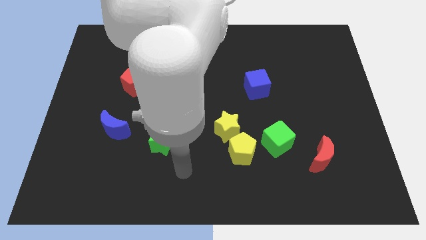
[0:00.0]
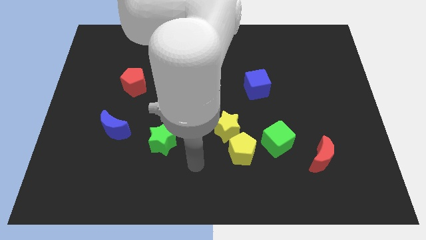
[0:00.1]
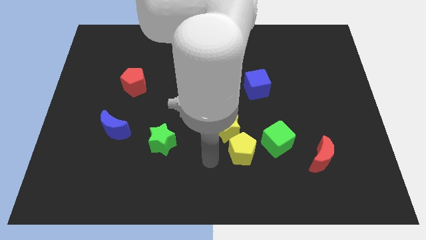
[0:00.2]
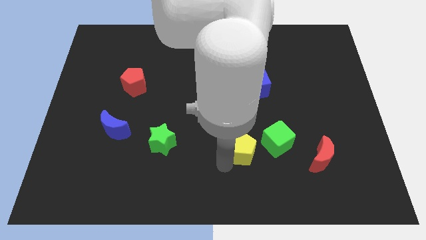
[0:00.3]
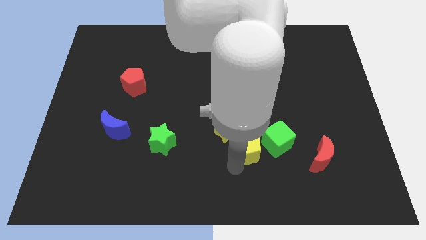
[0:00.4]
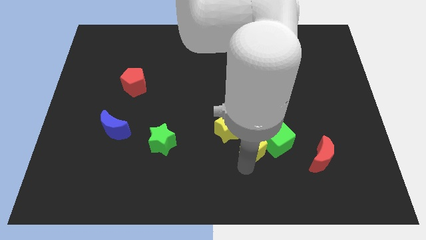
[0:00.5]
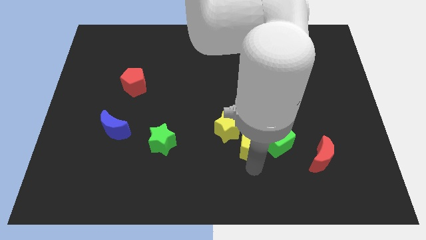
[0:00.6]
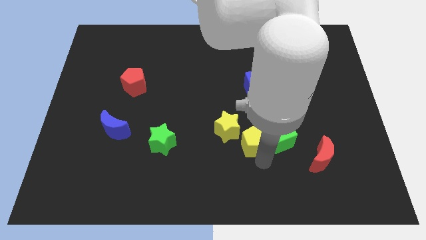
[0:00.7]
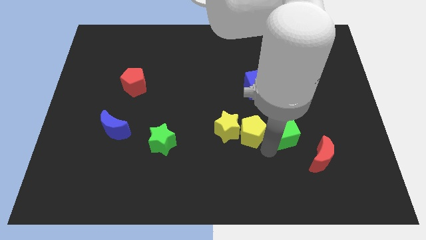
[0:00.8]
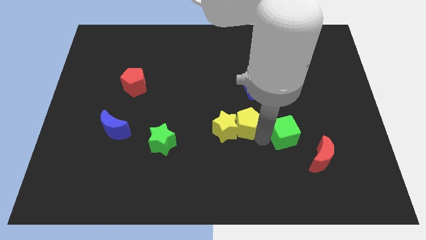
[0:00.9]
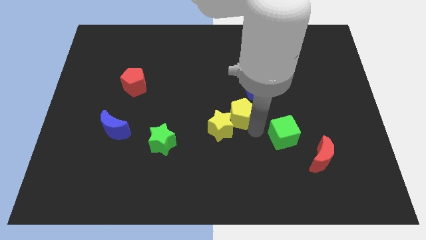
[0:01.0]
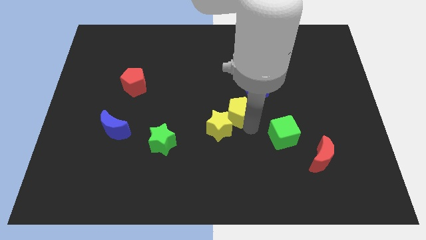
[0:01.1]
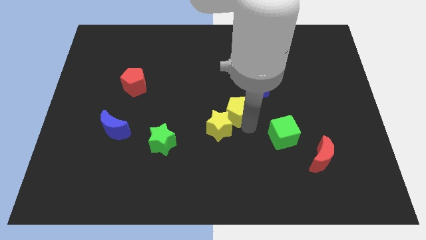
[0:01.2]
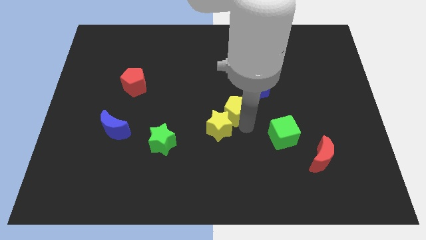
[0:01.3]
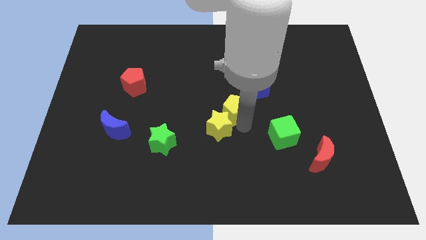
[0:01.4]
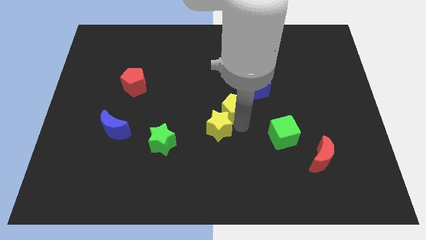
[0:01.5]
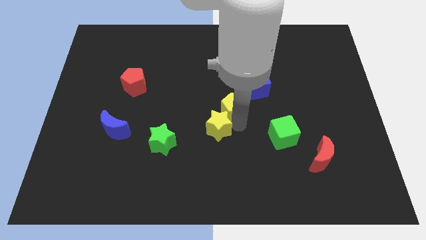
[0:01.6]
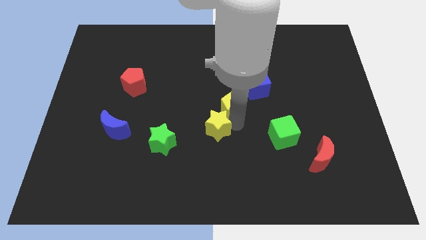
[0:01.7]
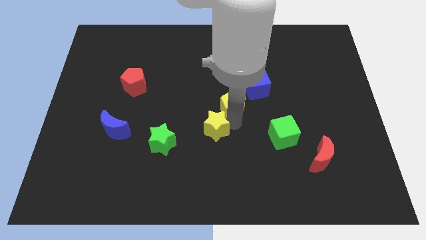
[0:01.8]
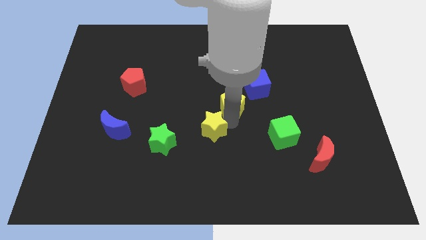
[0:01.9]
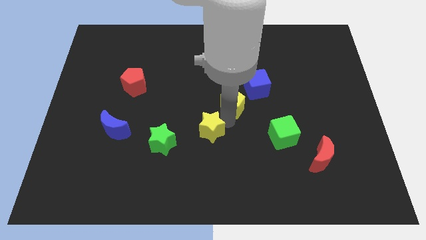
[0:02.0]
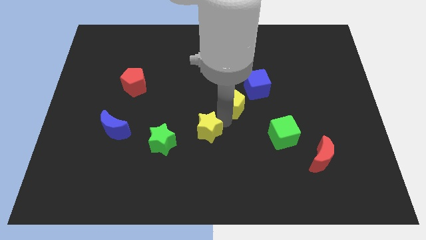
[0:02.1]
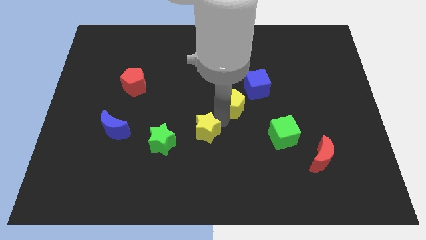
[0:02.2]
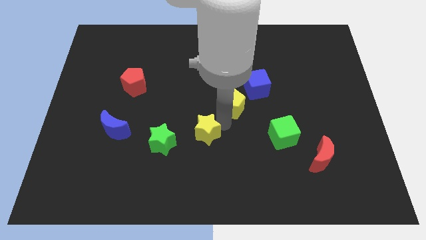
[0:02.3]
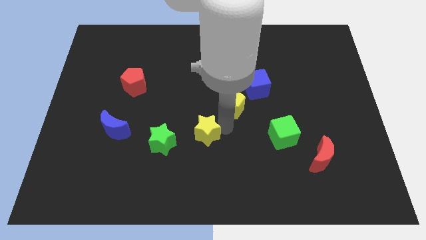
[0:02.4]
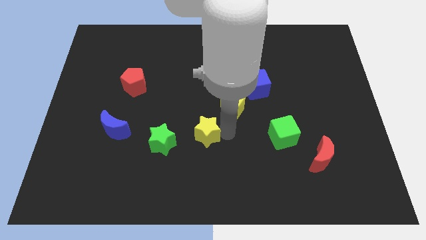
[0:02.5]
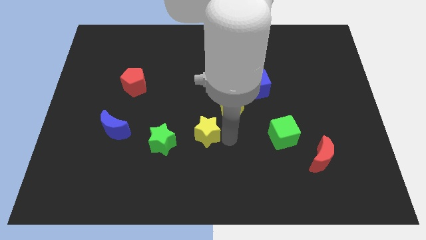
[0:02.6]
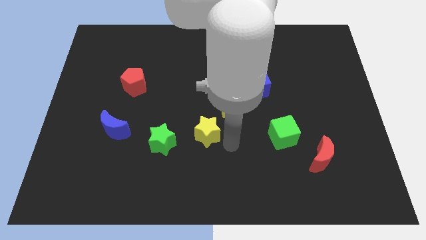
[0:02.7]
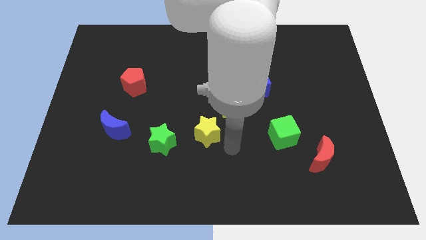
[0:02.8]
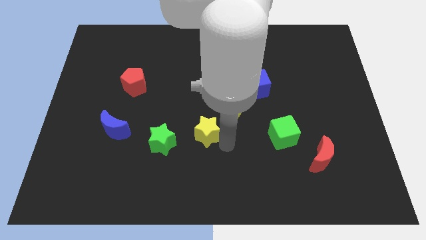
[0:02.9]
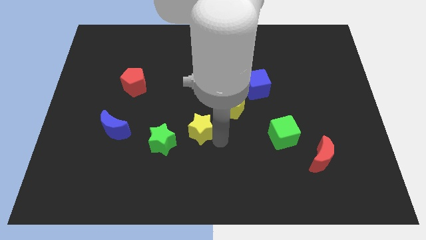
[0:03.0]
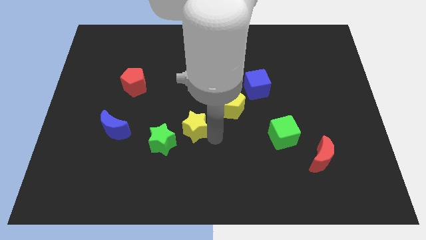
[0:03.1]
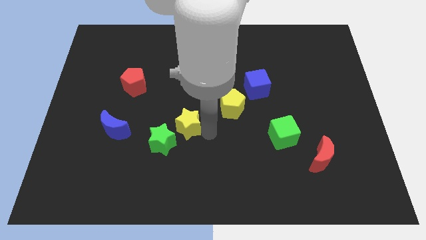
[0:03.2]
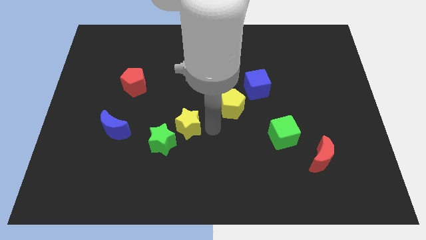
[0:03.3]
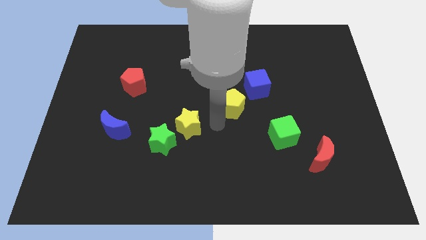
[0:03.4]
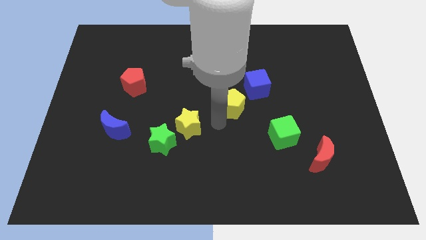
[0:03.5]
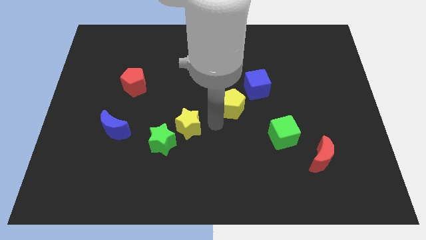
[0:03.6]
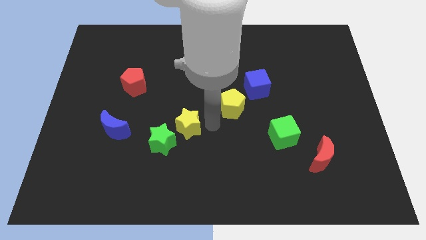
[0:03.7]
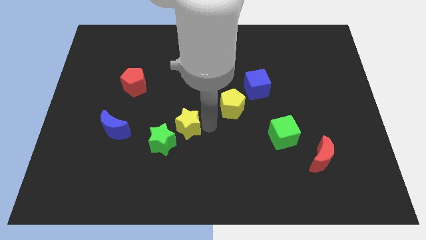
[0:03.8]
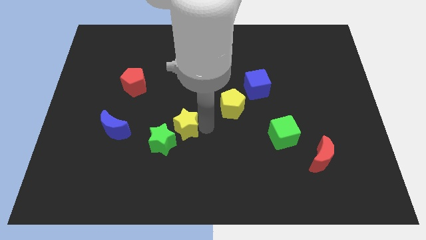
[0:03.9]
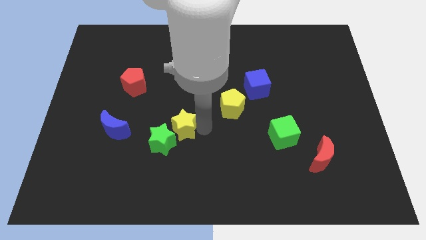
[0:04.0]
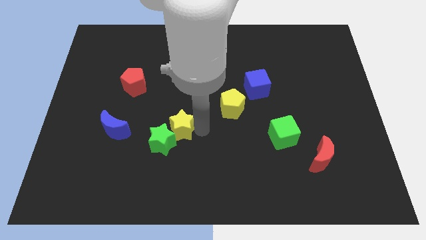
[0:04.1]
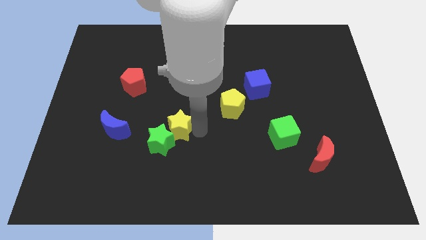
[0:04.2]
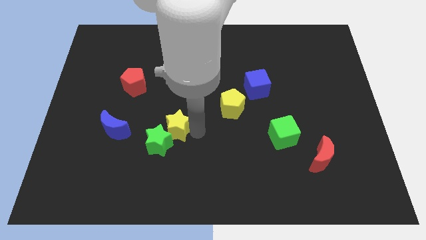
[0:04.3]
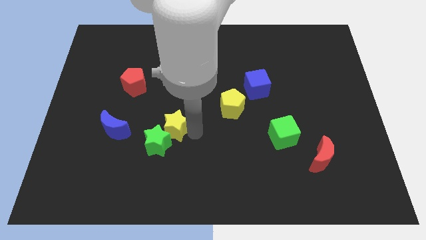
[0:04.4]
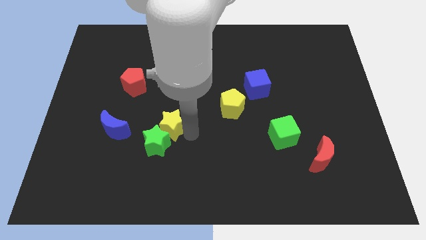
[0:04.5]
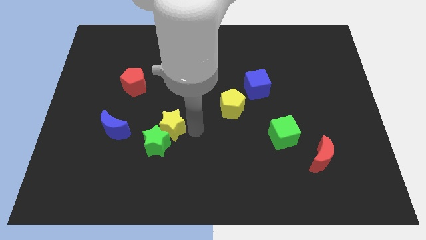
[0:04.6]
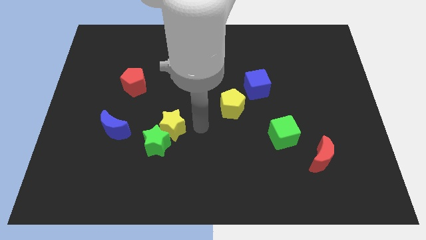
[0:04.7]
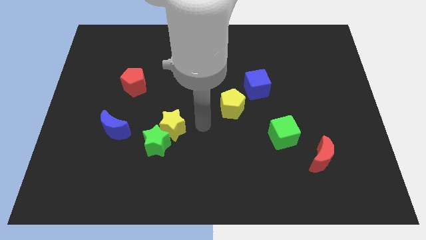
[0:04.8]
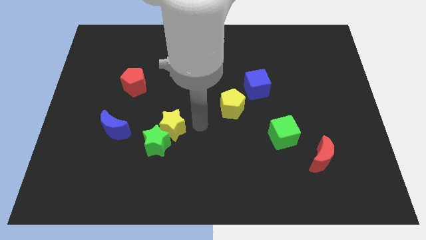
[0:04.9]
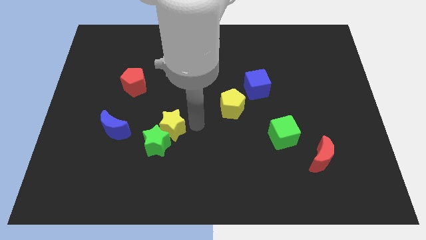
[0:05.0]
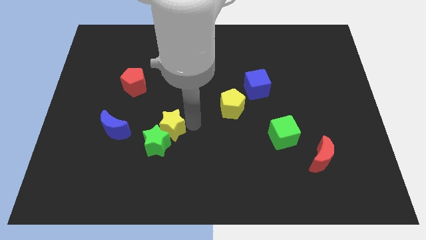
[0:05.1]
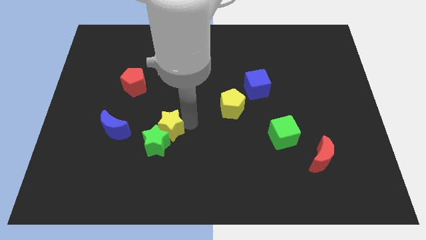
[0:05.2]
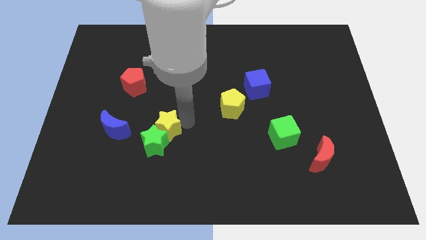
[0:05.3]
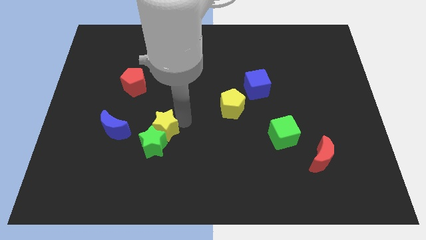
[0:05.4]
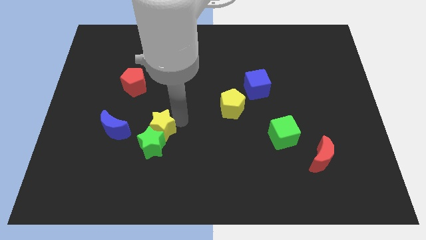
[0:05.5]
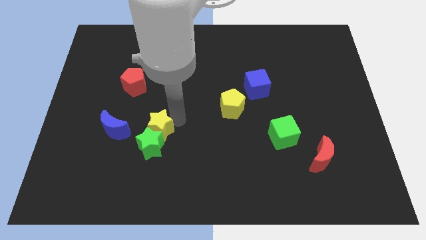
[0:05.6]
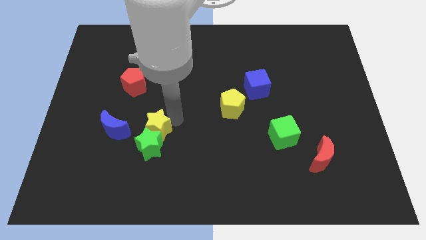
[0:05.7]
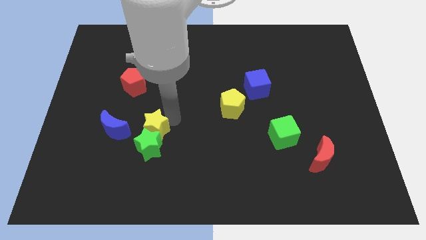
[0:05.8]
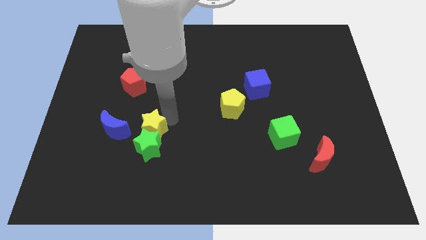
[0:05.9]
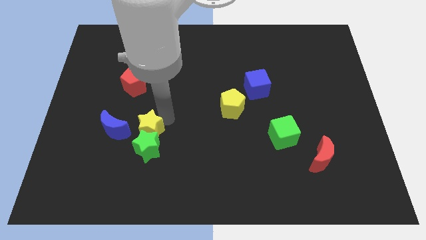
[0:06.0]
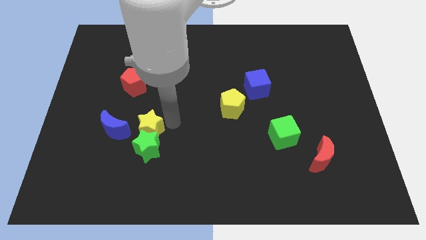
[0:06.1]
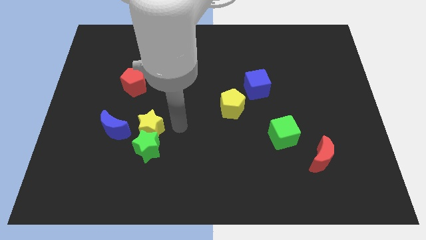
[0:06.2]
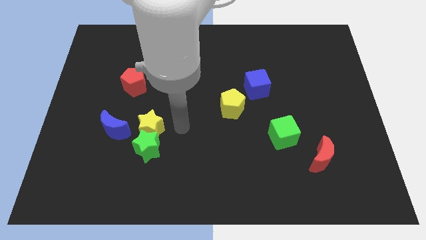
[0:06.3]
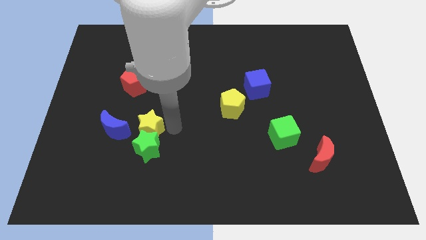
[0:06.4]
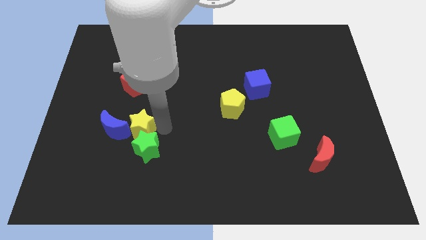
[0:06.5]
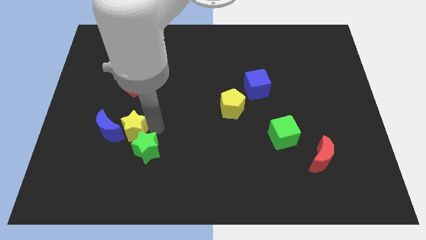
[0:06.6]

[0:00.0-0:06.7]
push the yellow star next to the blue moon

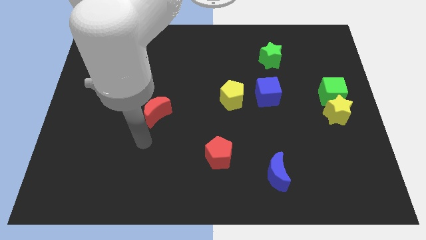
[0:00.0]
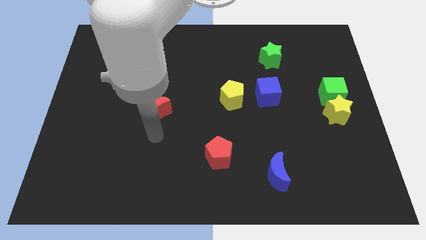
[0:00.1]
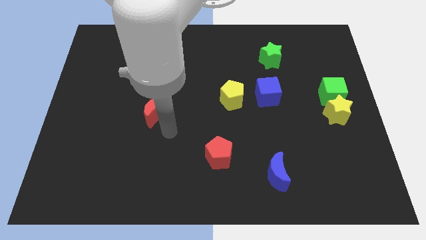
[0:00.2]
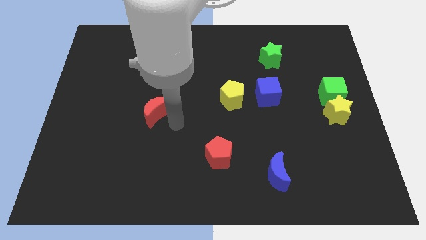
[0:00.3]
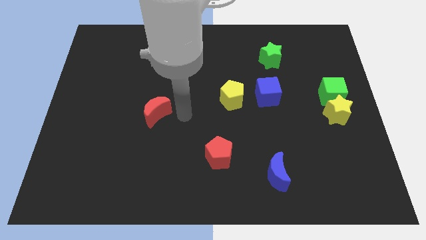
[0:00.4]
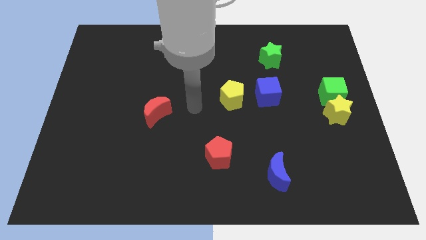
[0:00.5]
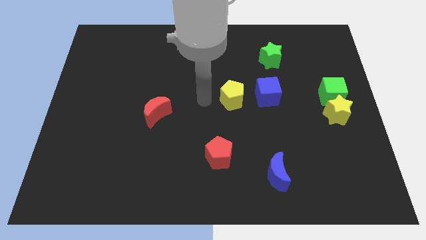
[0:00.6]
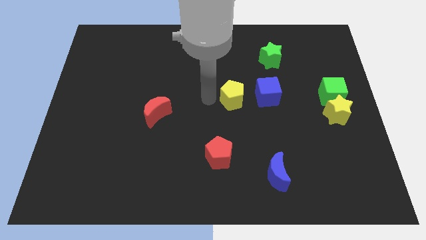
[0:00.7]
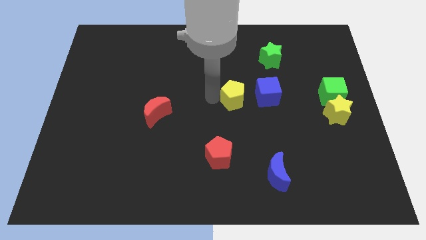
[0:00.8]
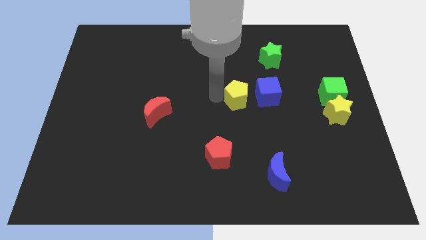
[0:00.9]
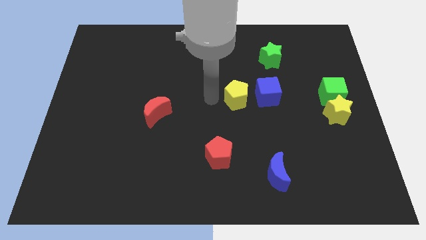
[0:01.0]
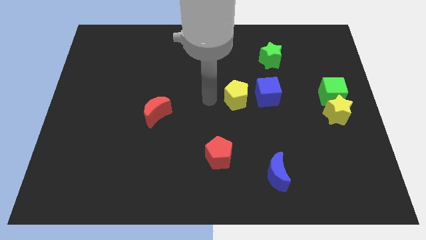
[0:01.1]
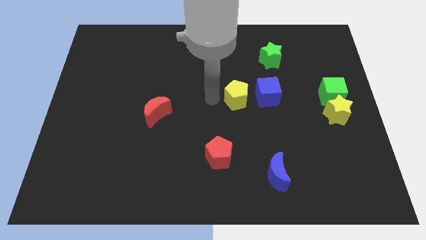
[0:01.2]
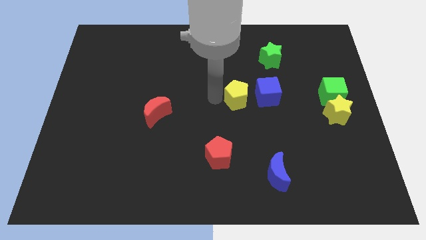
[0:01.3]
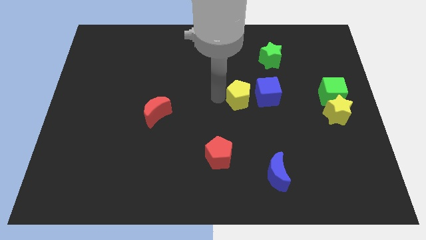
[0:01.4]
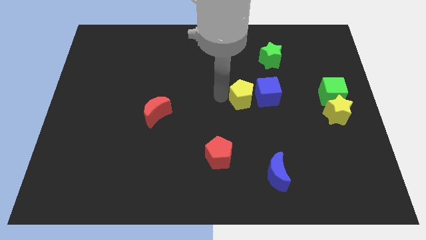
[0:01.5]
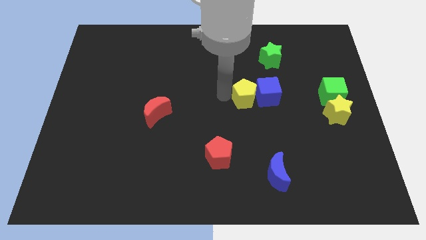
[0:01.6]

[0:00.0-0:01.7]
move the yellow pentagon to the blue cube
